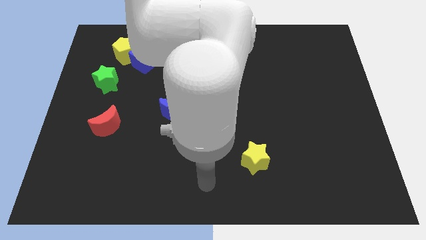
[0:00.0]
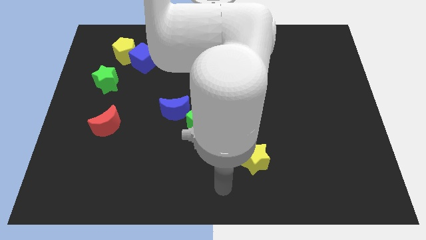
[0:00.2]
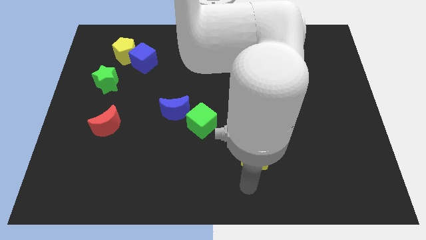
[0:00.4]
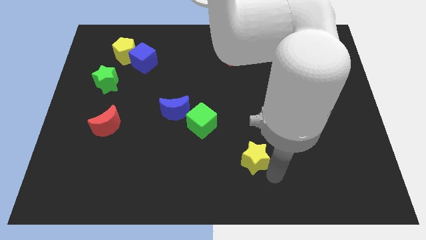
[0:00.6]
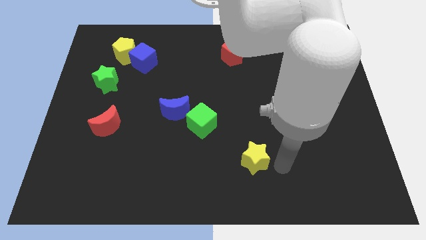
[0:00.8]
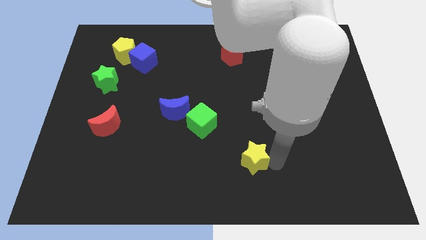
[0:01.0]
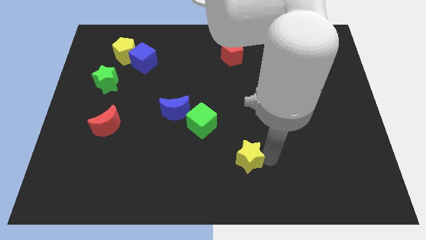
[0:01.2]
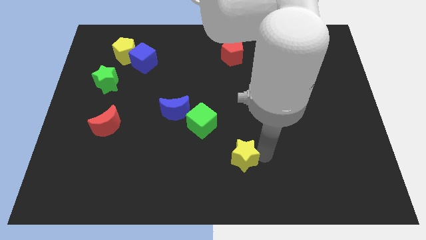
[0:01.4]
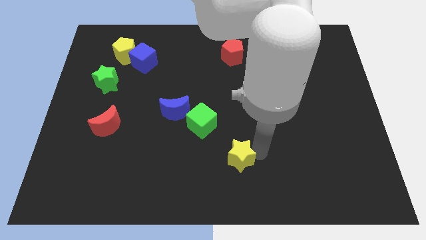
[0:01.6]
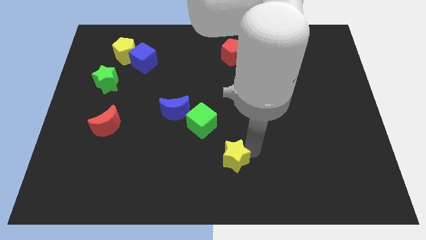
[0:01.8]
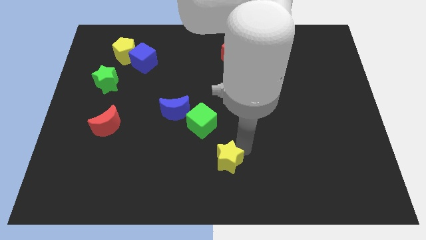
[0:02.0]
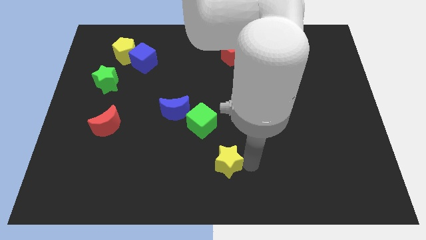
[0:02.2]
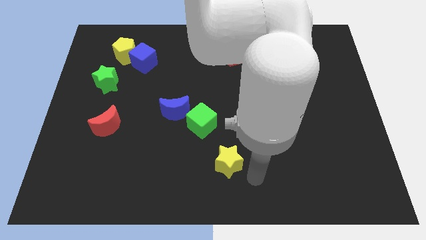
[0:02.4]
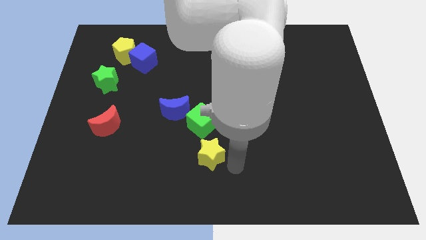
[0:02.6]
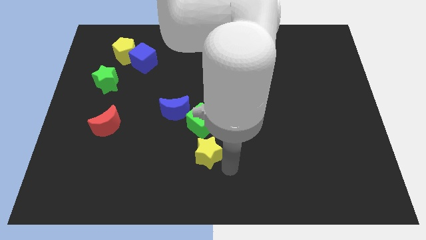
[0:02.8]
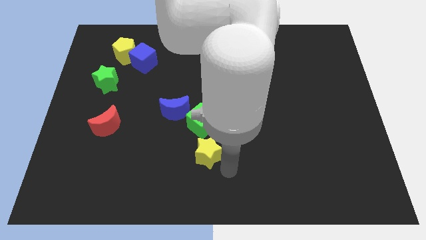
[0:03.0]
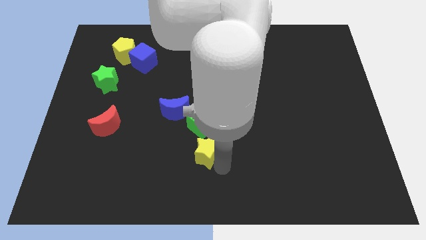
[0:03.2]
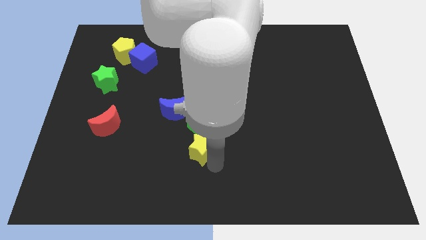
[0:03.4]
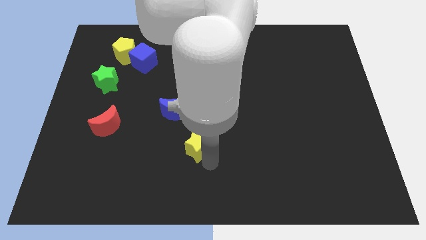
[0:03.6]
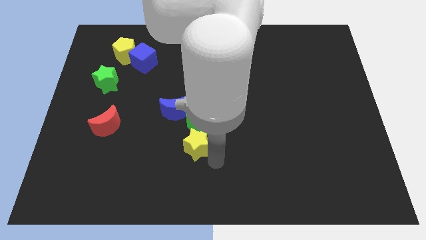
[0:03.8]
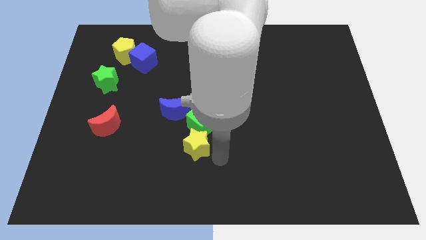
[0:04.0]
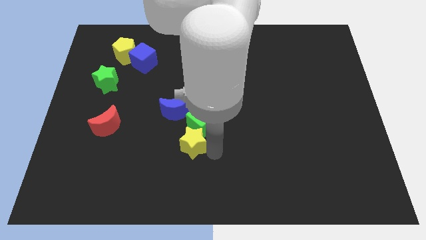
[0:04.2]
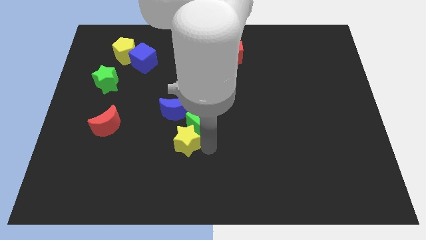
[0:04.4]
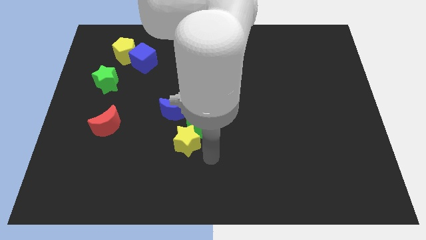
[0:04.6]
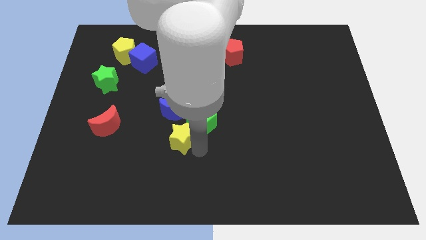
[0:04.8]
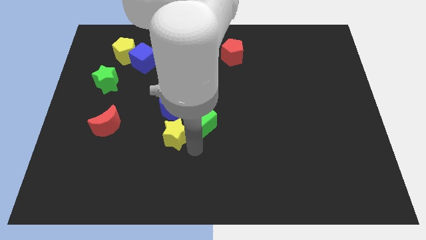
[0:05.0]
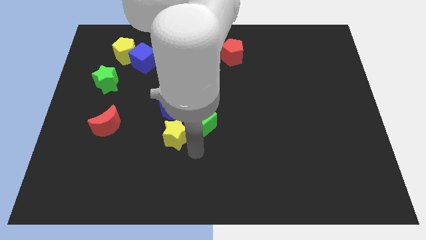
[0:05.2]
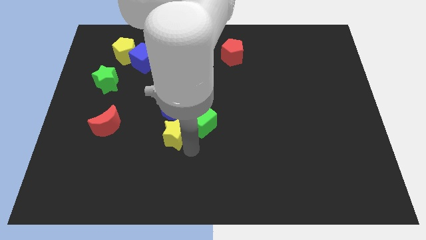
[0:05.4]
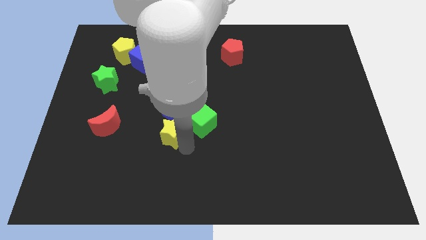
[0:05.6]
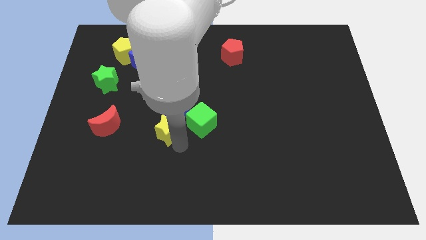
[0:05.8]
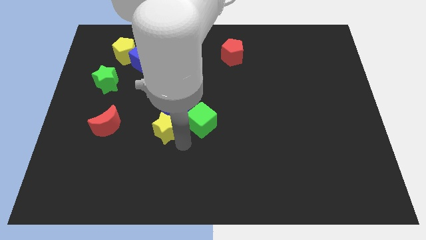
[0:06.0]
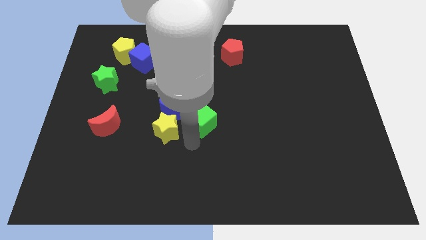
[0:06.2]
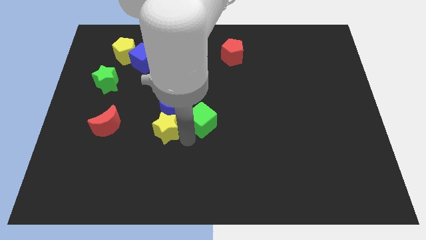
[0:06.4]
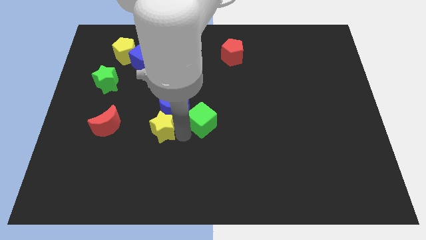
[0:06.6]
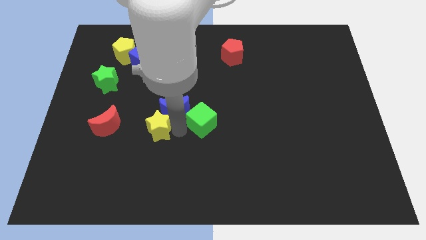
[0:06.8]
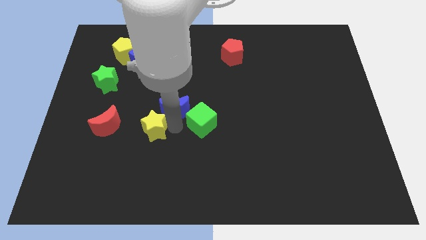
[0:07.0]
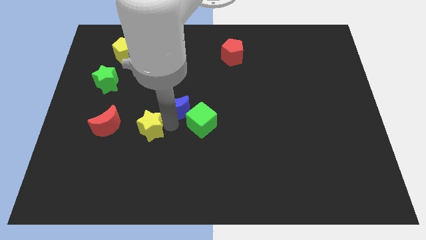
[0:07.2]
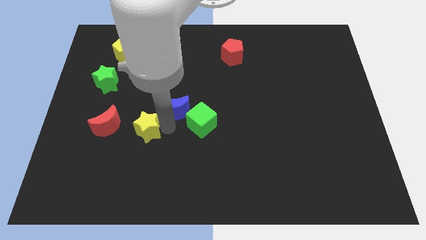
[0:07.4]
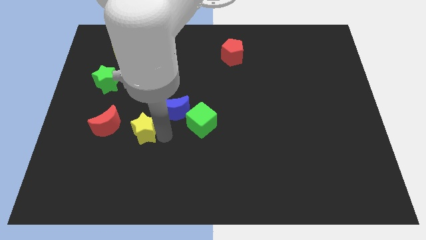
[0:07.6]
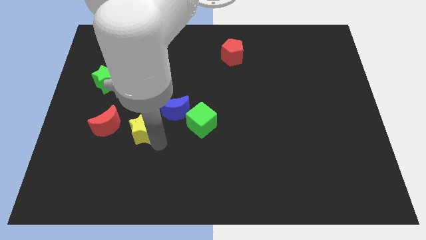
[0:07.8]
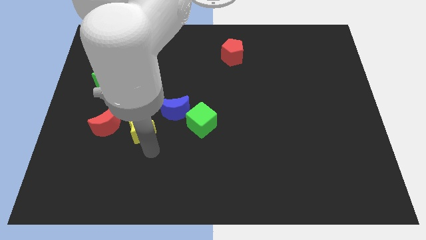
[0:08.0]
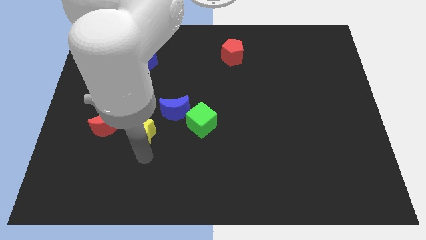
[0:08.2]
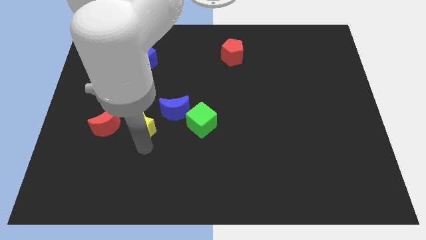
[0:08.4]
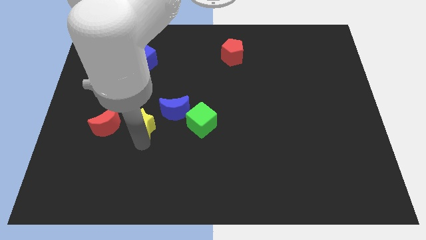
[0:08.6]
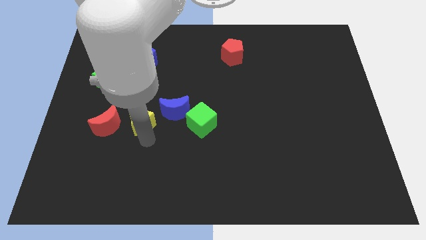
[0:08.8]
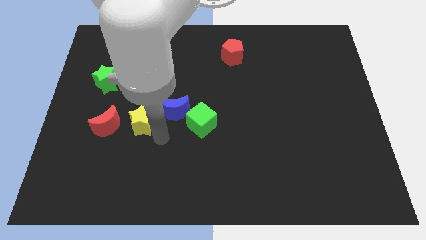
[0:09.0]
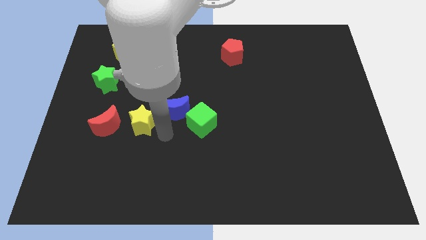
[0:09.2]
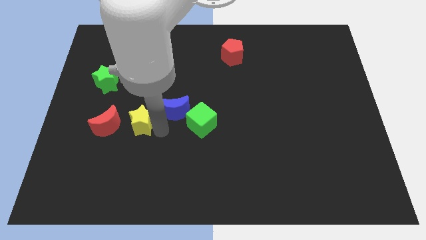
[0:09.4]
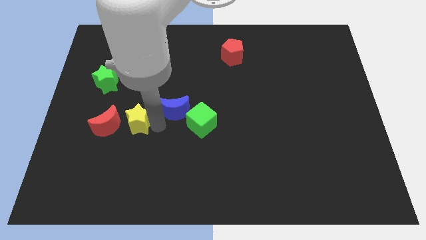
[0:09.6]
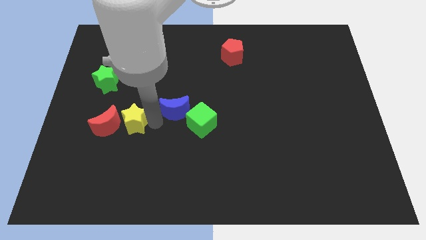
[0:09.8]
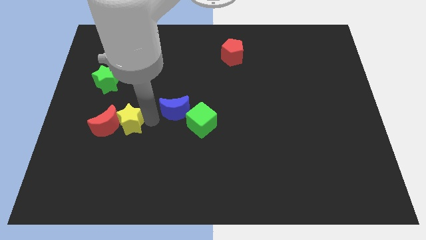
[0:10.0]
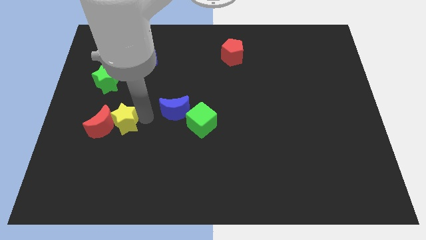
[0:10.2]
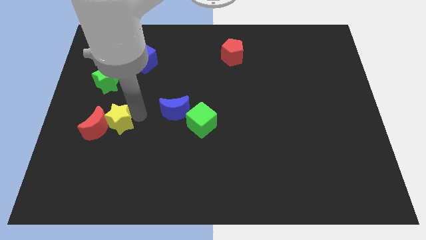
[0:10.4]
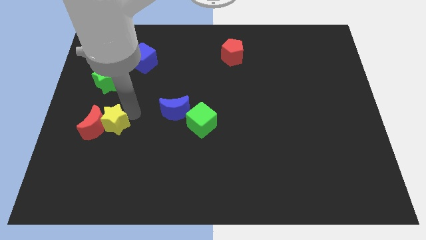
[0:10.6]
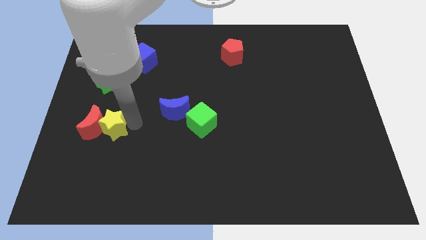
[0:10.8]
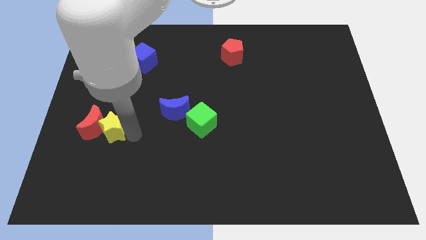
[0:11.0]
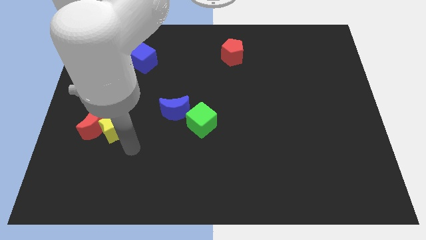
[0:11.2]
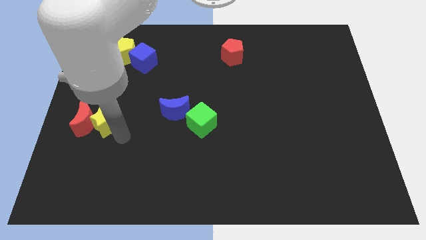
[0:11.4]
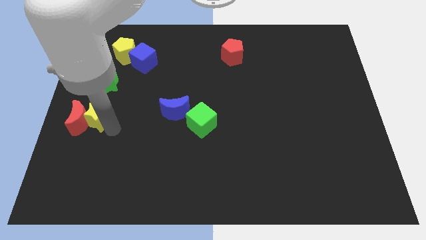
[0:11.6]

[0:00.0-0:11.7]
push the yellow star to the left side
